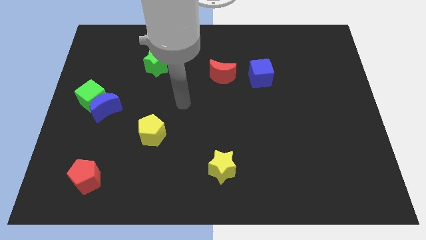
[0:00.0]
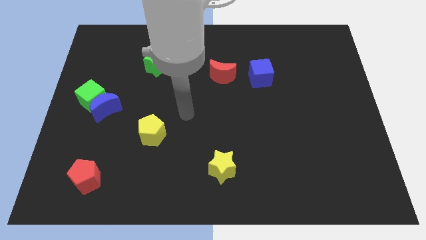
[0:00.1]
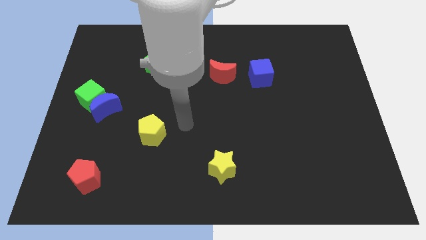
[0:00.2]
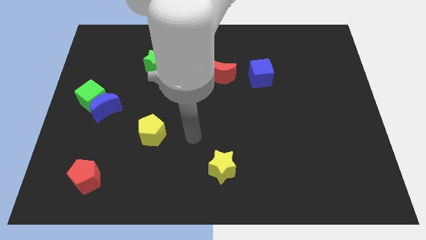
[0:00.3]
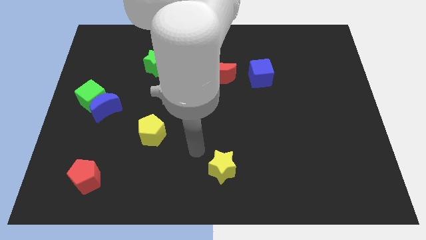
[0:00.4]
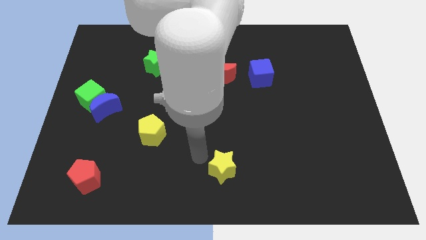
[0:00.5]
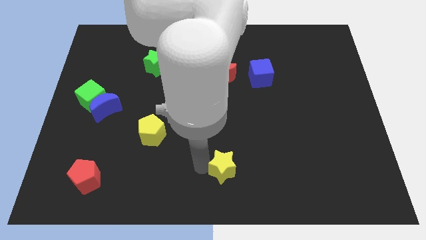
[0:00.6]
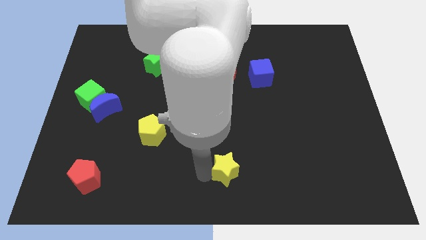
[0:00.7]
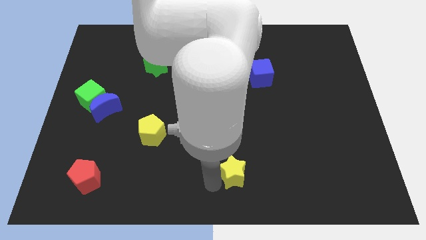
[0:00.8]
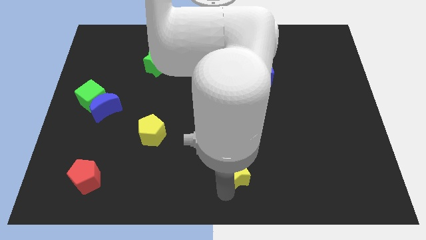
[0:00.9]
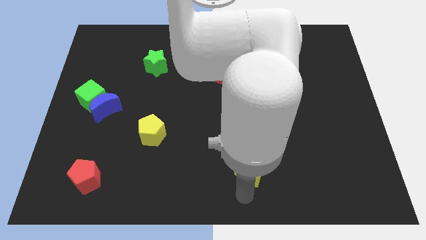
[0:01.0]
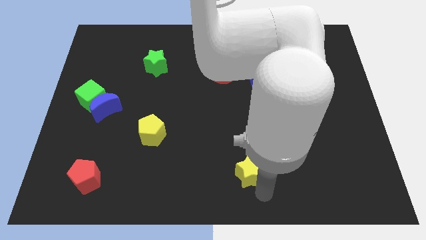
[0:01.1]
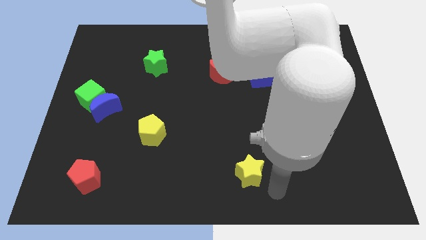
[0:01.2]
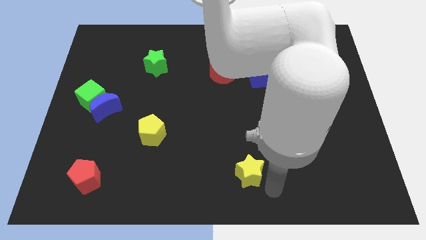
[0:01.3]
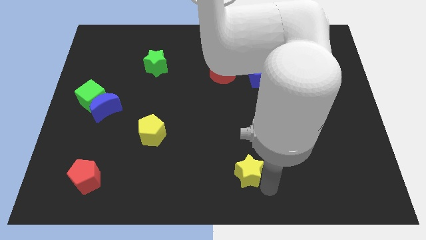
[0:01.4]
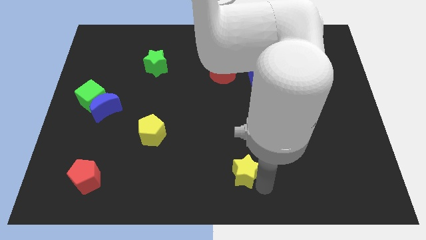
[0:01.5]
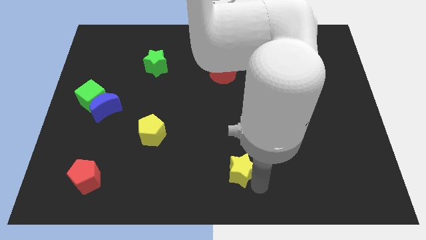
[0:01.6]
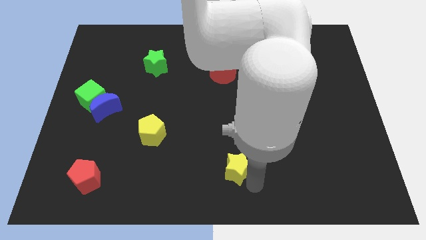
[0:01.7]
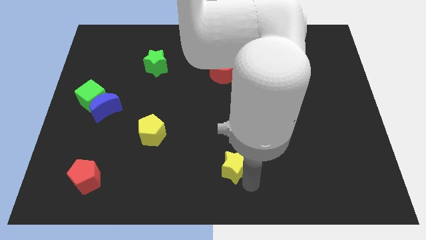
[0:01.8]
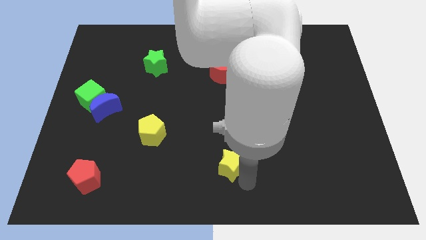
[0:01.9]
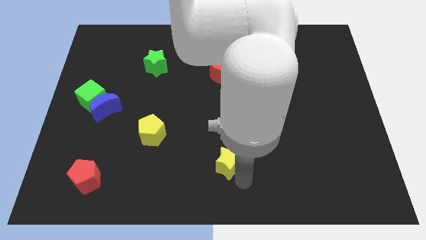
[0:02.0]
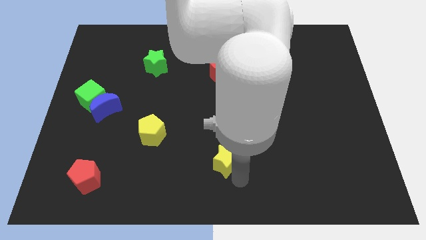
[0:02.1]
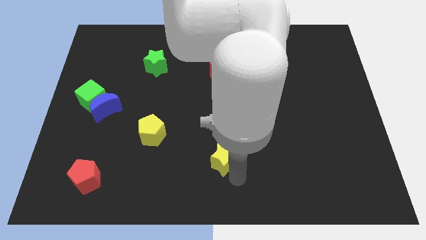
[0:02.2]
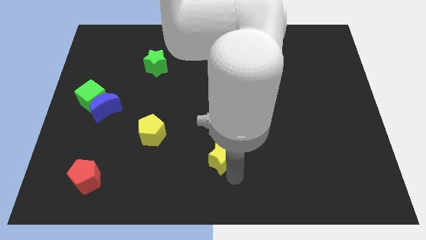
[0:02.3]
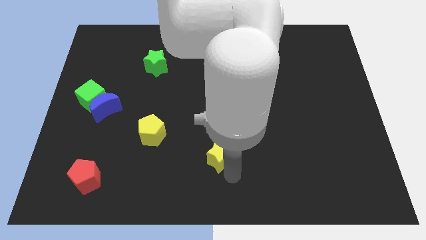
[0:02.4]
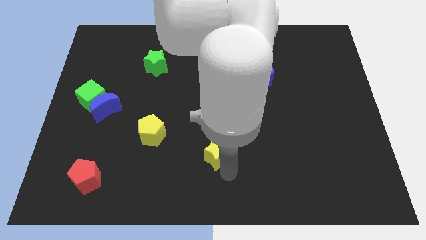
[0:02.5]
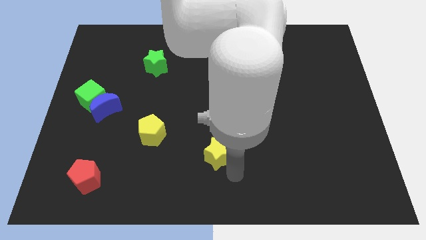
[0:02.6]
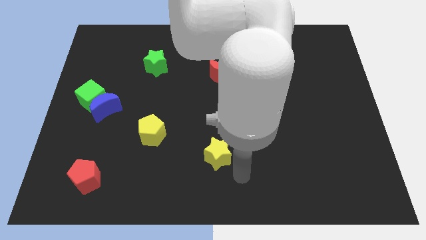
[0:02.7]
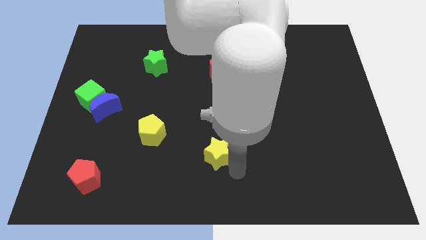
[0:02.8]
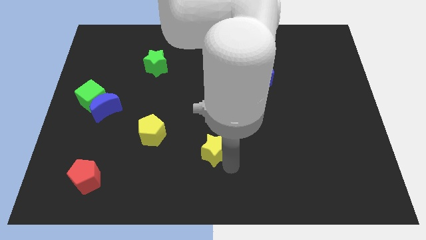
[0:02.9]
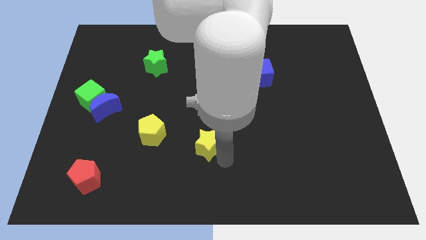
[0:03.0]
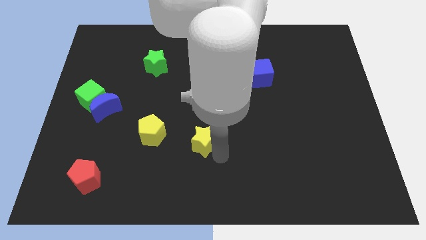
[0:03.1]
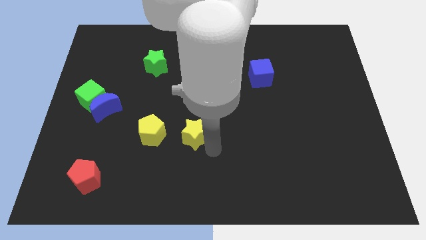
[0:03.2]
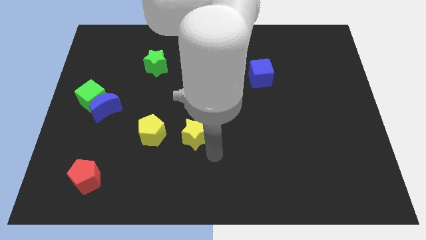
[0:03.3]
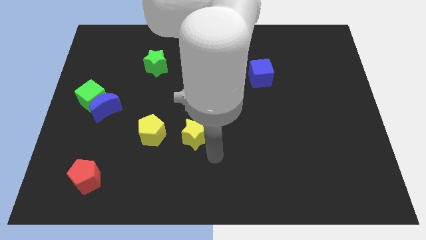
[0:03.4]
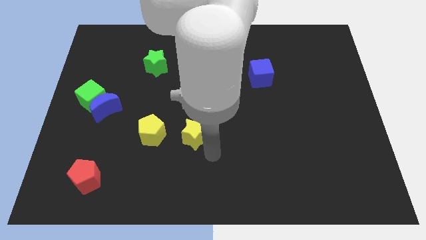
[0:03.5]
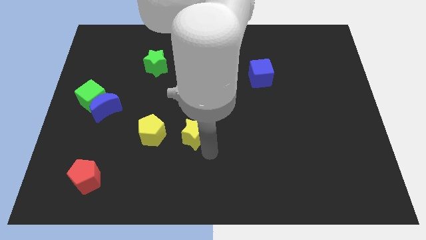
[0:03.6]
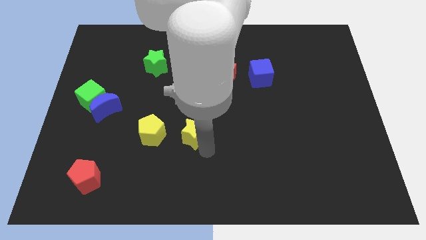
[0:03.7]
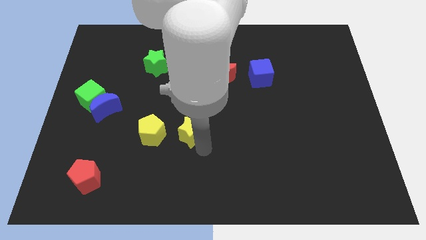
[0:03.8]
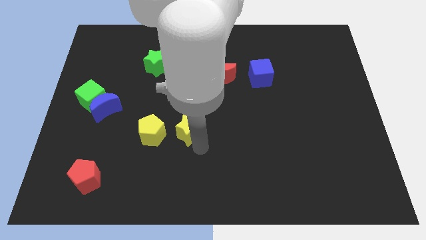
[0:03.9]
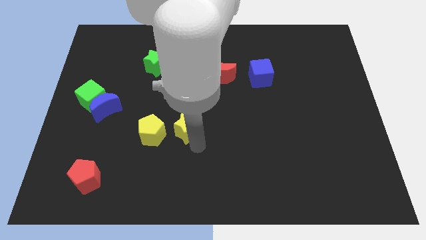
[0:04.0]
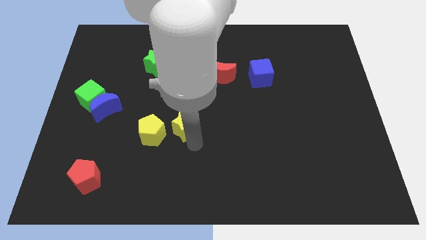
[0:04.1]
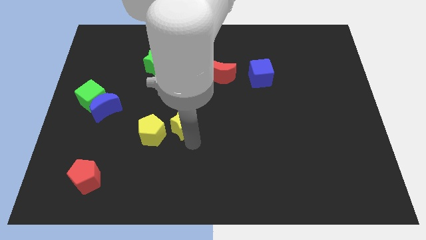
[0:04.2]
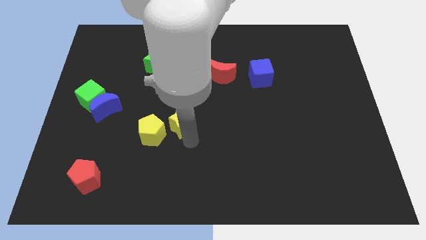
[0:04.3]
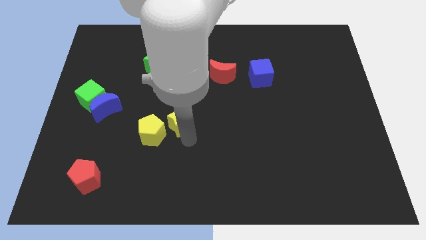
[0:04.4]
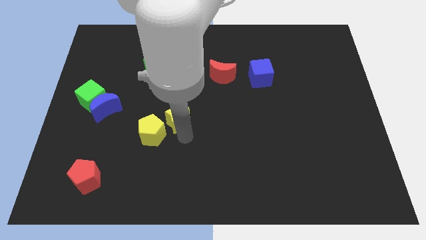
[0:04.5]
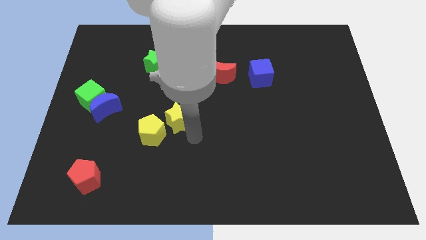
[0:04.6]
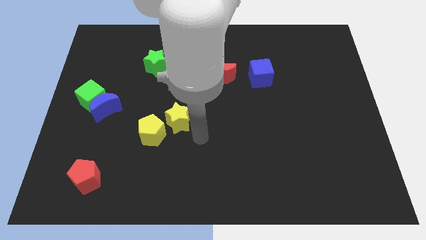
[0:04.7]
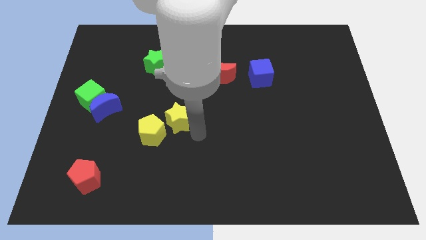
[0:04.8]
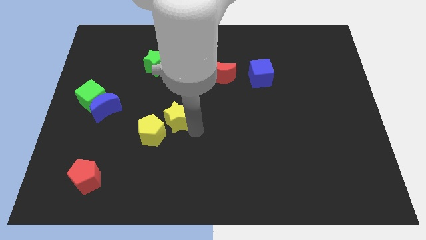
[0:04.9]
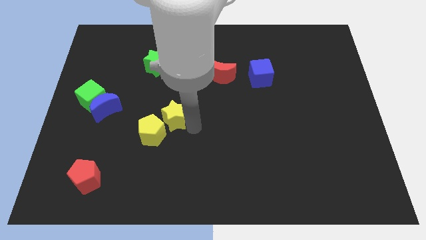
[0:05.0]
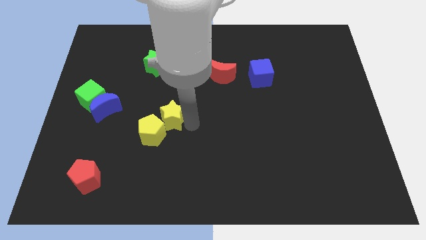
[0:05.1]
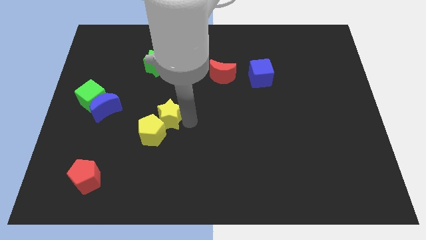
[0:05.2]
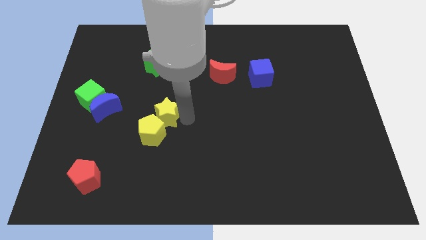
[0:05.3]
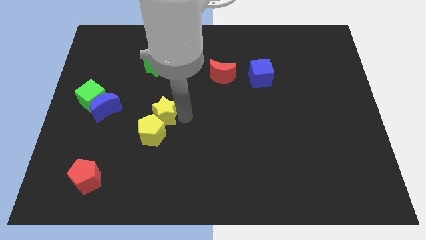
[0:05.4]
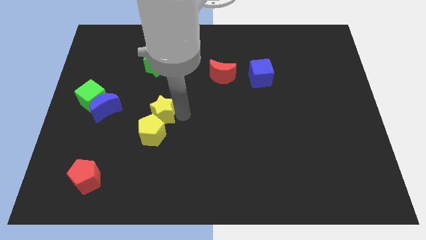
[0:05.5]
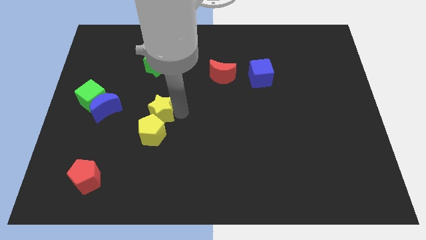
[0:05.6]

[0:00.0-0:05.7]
move the yellow star upwards and then left

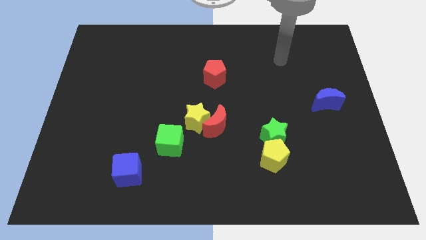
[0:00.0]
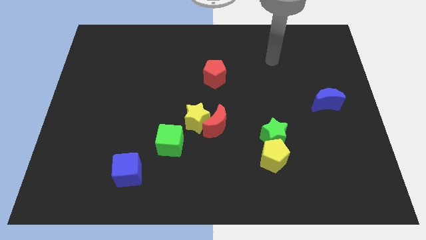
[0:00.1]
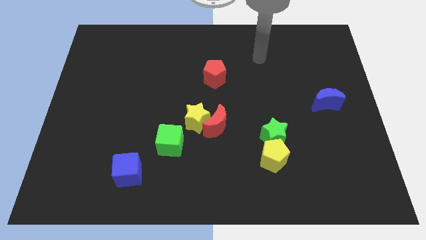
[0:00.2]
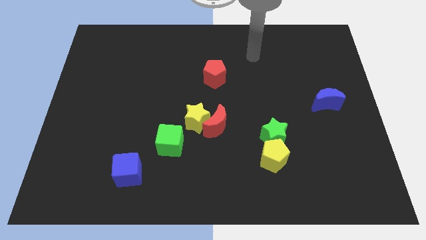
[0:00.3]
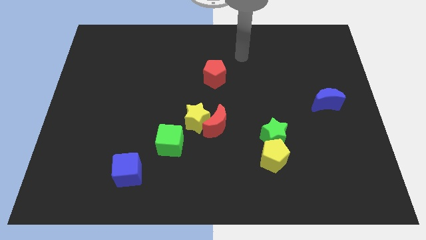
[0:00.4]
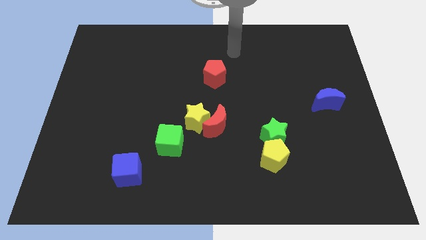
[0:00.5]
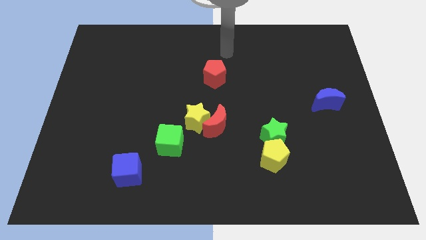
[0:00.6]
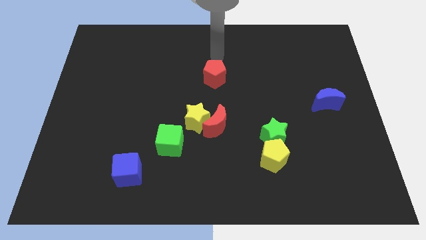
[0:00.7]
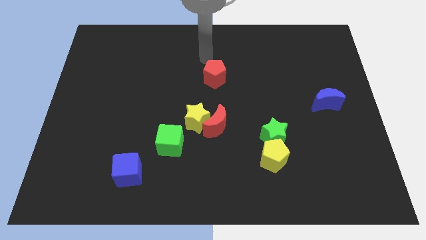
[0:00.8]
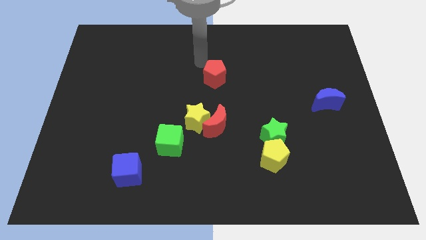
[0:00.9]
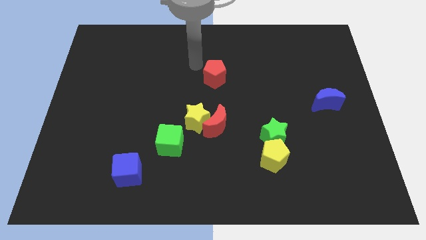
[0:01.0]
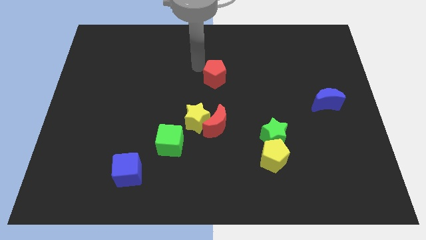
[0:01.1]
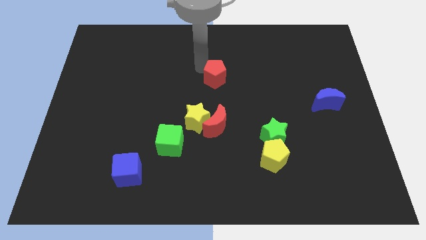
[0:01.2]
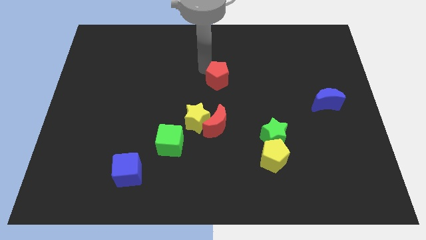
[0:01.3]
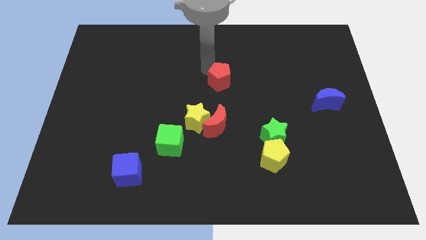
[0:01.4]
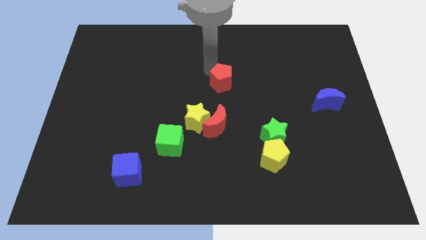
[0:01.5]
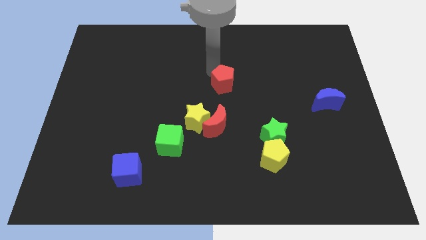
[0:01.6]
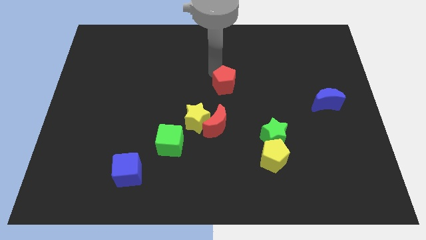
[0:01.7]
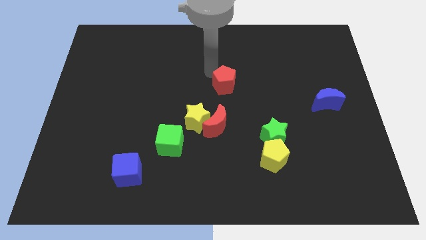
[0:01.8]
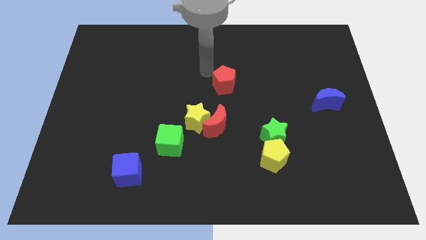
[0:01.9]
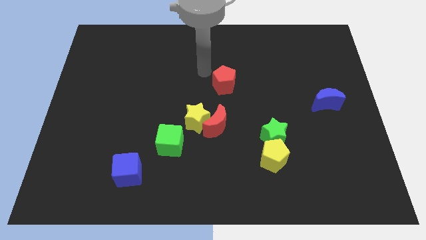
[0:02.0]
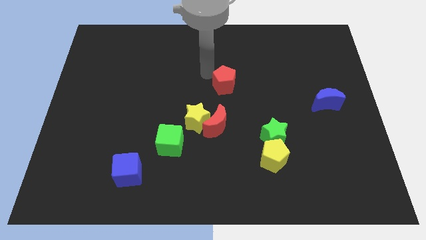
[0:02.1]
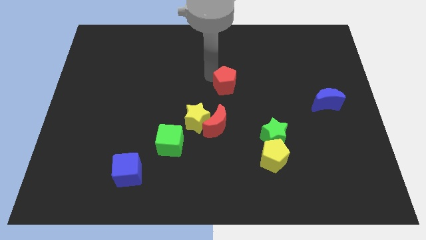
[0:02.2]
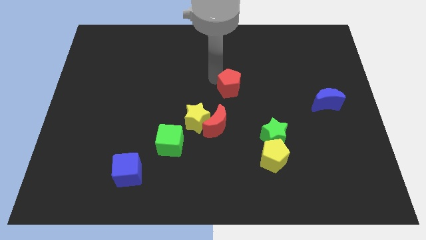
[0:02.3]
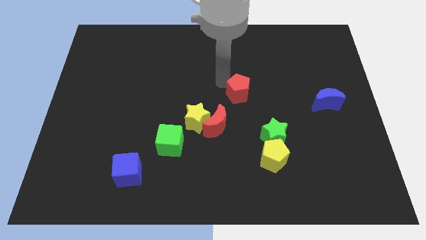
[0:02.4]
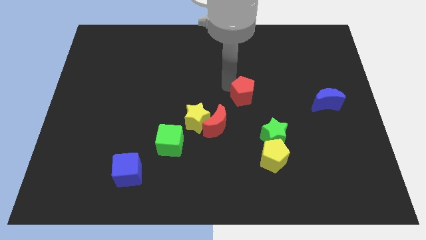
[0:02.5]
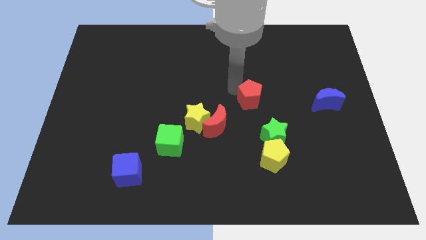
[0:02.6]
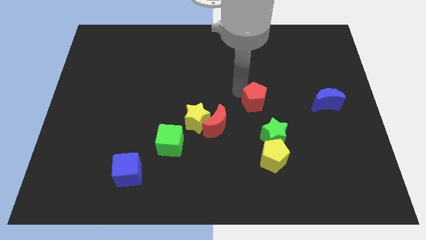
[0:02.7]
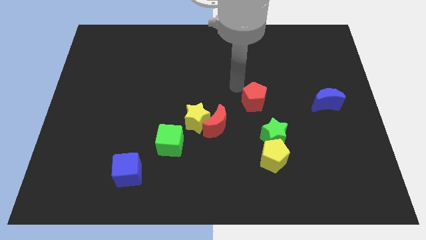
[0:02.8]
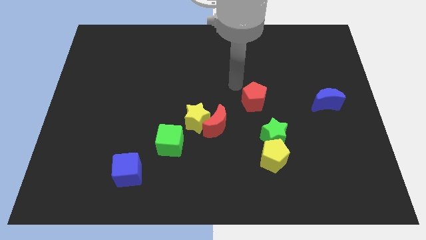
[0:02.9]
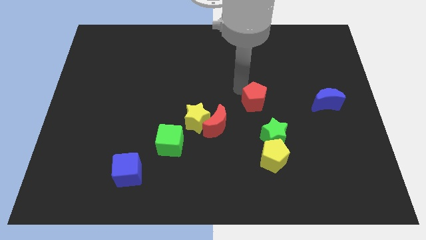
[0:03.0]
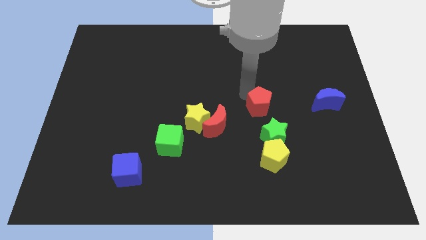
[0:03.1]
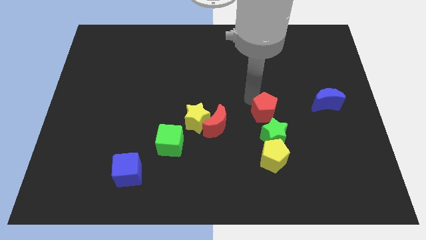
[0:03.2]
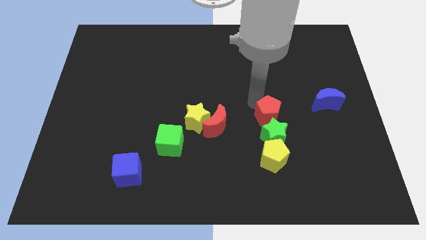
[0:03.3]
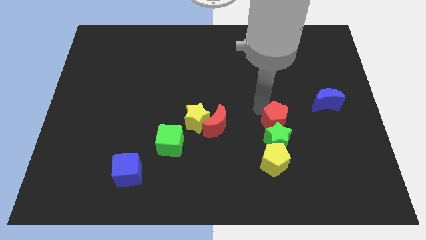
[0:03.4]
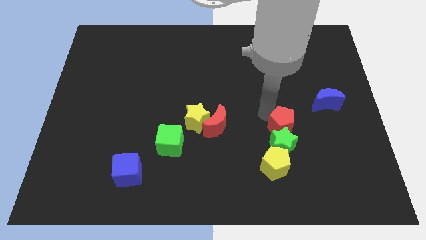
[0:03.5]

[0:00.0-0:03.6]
move the red pentagon diagonally downwards and right
